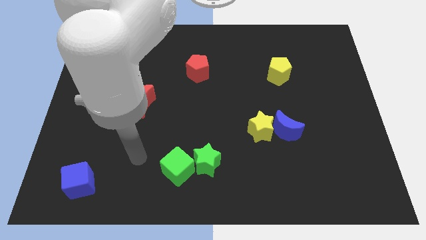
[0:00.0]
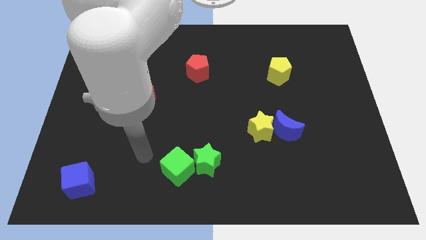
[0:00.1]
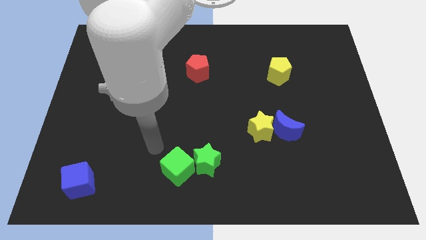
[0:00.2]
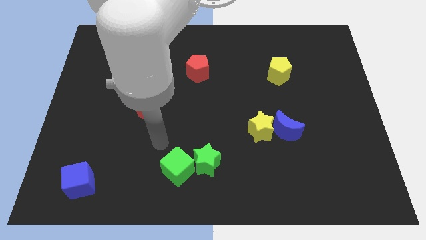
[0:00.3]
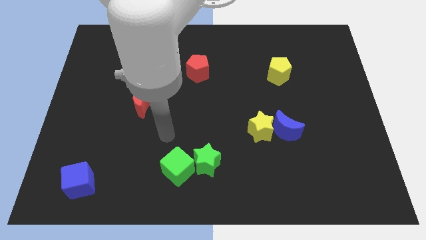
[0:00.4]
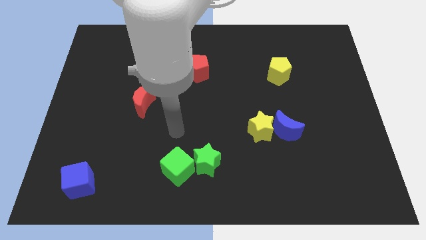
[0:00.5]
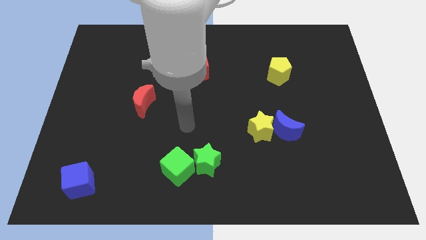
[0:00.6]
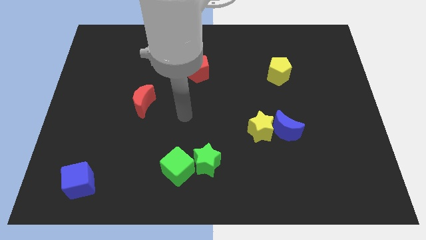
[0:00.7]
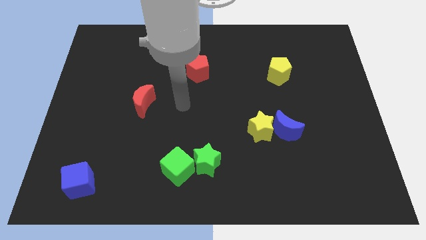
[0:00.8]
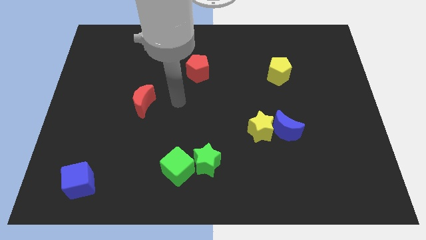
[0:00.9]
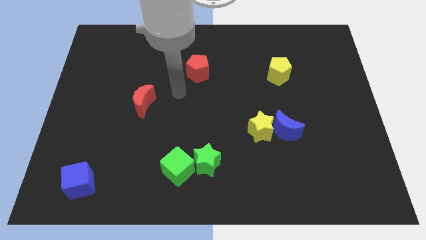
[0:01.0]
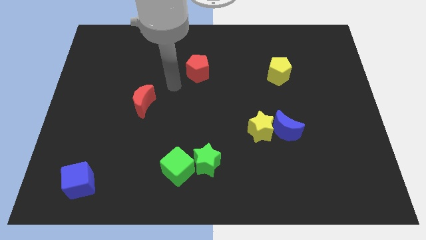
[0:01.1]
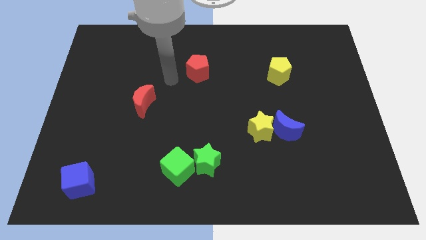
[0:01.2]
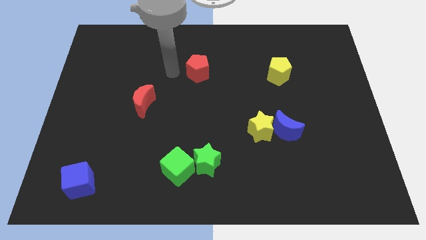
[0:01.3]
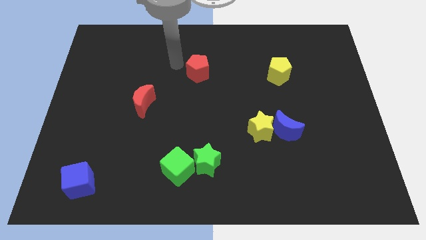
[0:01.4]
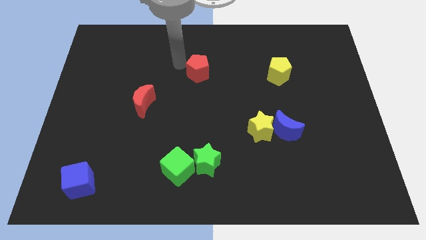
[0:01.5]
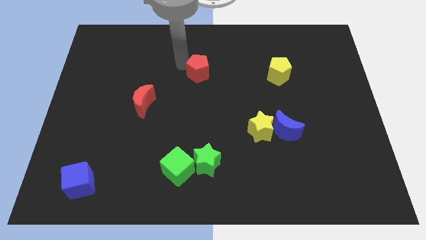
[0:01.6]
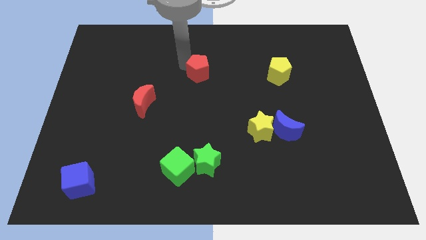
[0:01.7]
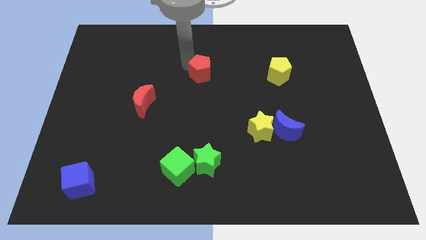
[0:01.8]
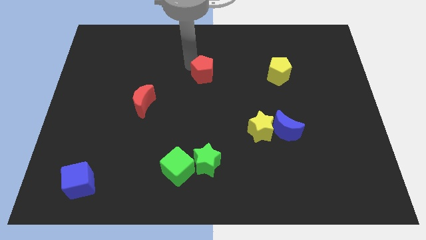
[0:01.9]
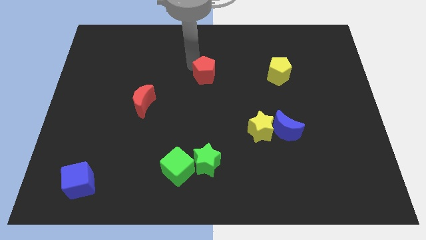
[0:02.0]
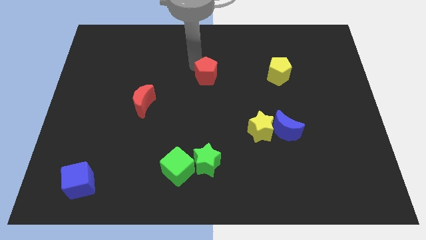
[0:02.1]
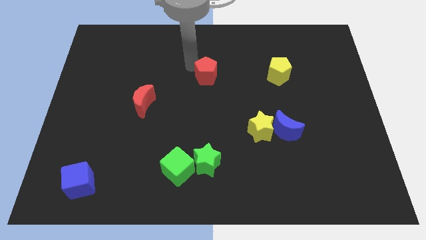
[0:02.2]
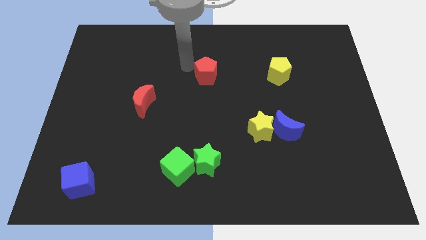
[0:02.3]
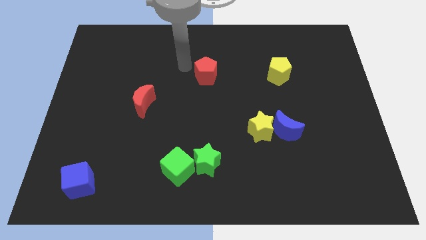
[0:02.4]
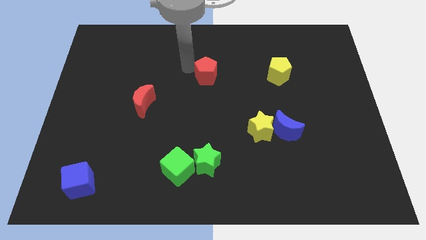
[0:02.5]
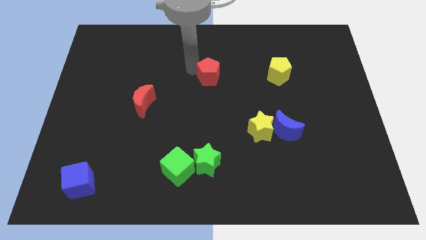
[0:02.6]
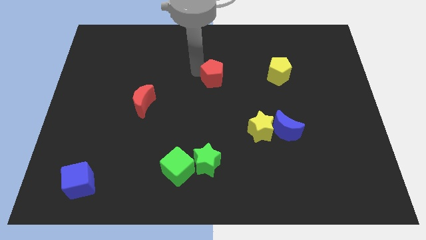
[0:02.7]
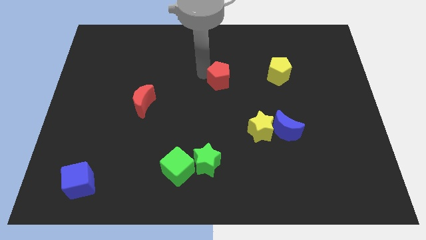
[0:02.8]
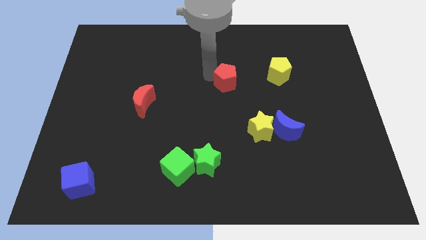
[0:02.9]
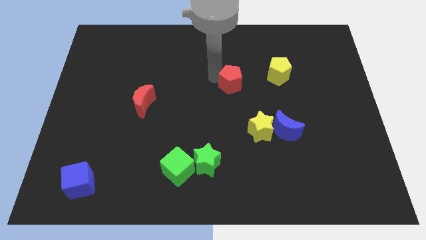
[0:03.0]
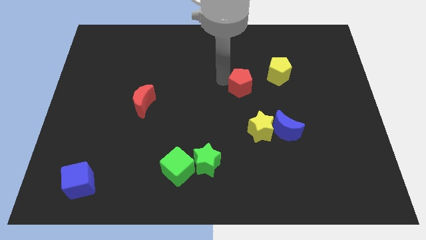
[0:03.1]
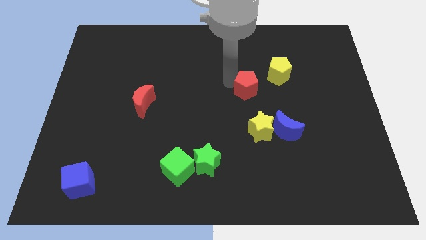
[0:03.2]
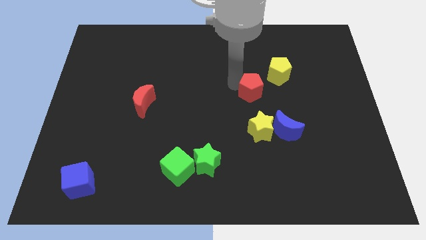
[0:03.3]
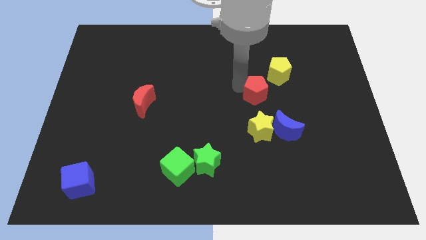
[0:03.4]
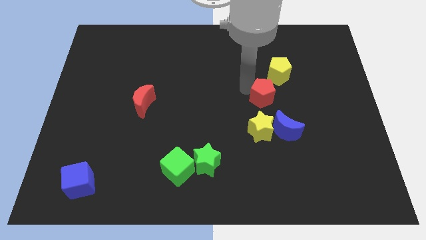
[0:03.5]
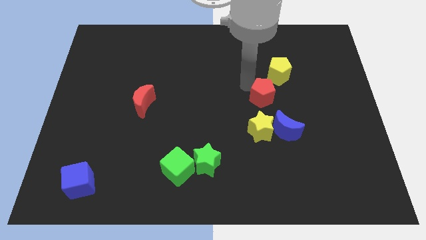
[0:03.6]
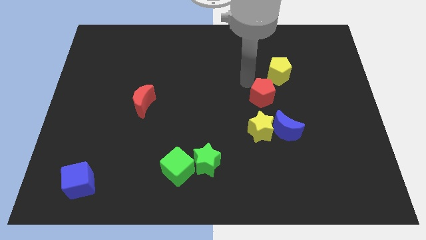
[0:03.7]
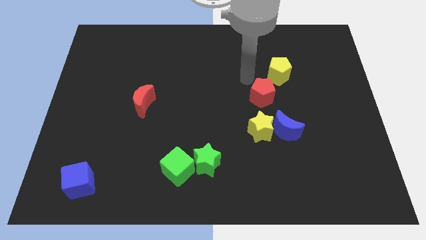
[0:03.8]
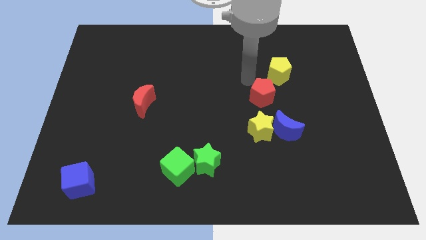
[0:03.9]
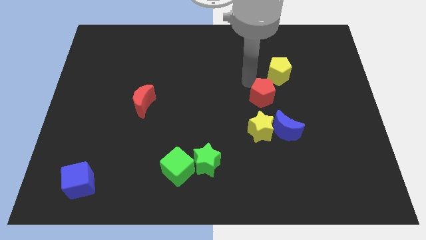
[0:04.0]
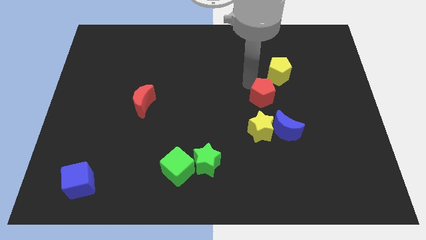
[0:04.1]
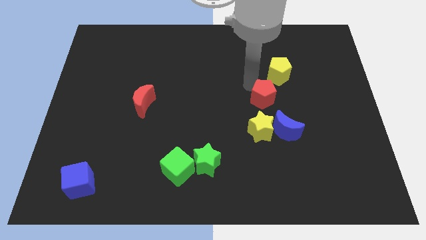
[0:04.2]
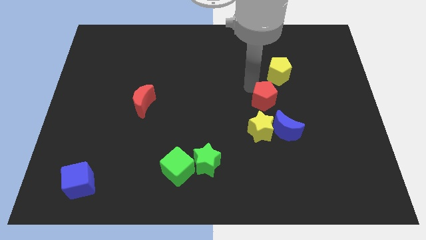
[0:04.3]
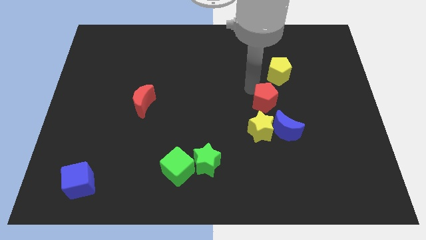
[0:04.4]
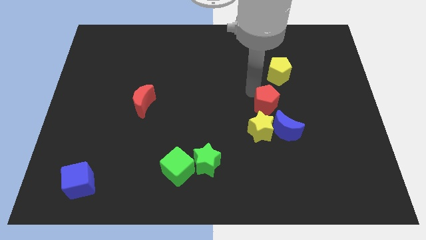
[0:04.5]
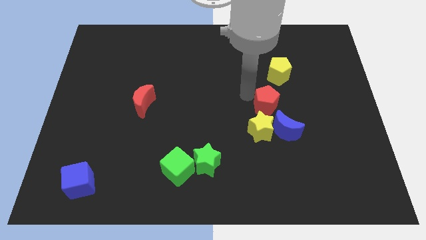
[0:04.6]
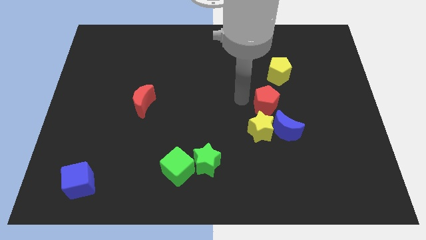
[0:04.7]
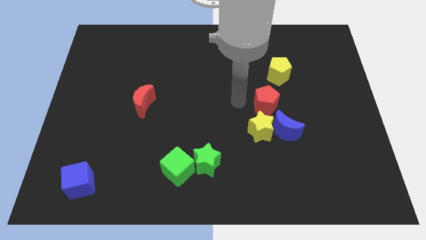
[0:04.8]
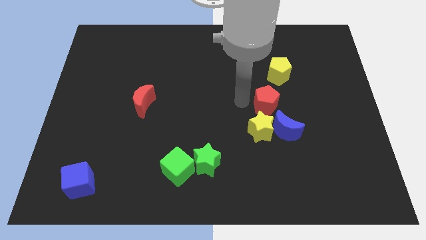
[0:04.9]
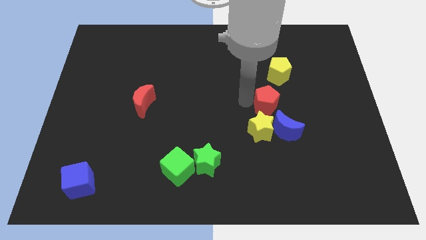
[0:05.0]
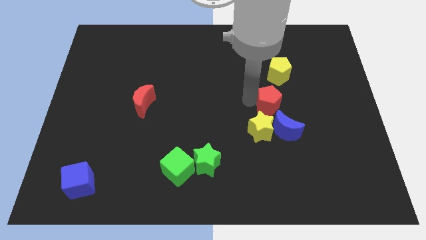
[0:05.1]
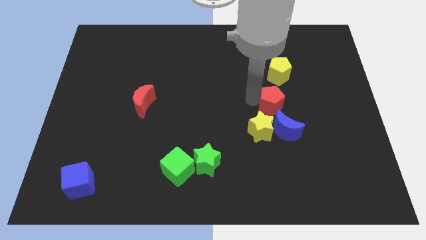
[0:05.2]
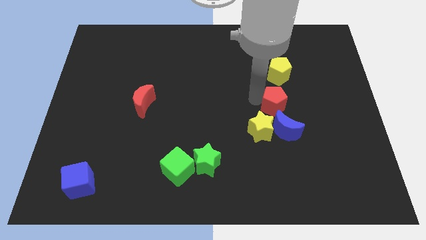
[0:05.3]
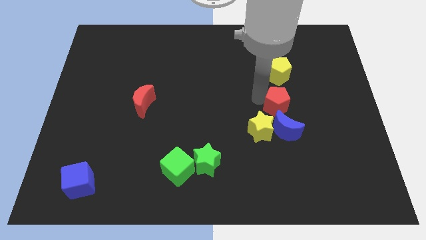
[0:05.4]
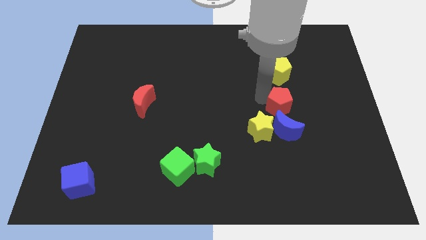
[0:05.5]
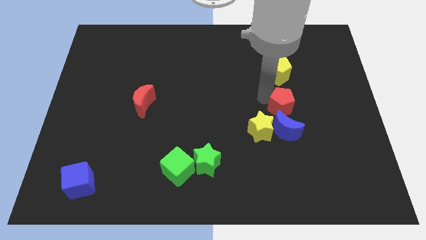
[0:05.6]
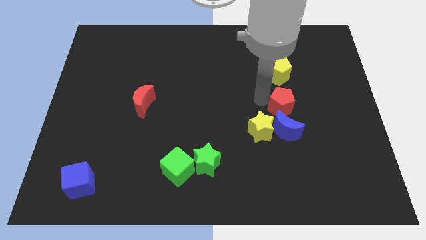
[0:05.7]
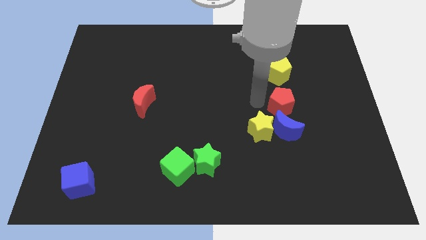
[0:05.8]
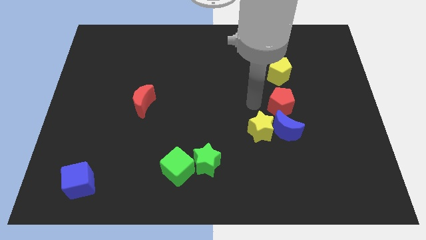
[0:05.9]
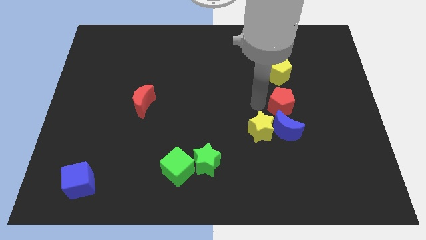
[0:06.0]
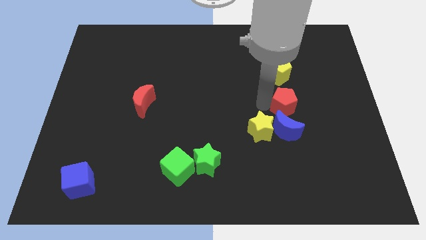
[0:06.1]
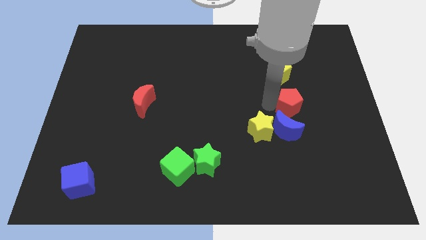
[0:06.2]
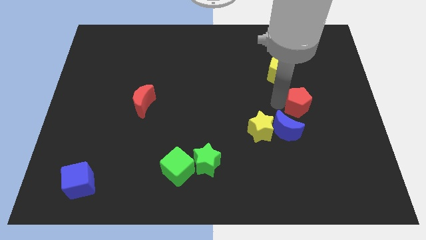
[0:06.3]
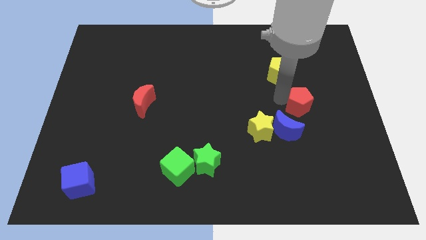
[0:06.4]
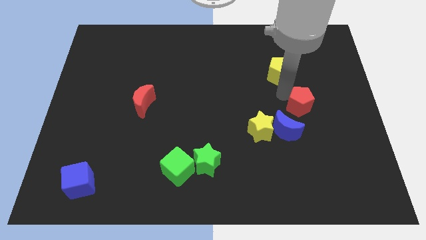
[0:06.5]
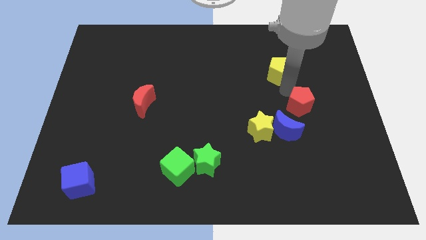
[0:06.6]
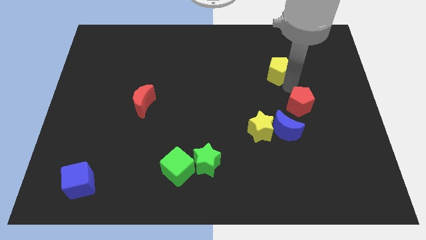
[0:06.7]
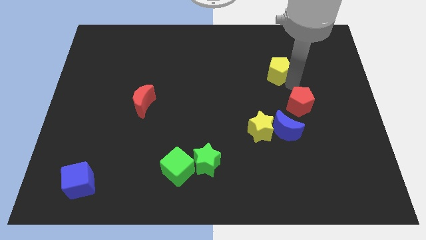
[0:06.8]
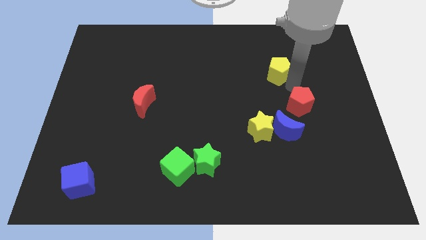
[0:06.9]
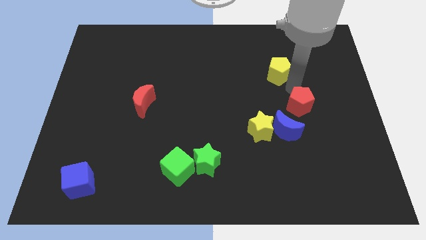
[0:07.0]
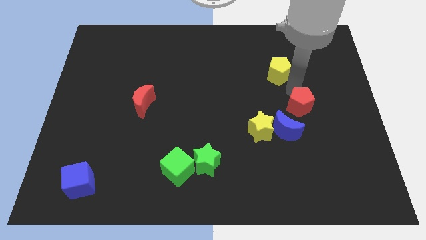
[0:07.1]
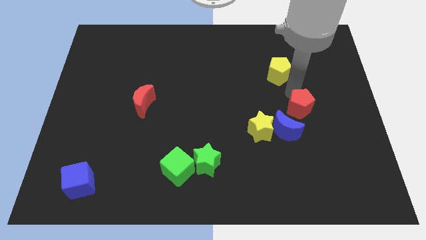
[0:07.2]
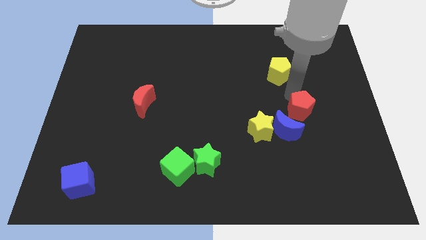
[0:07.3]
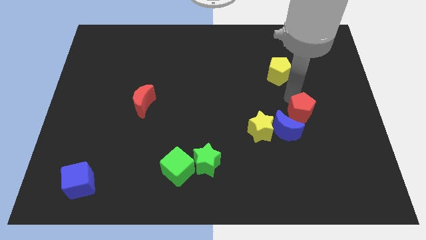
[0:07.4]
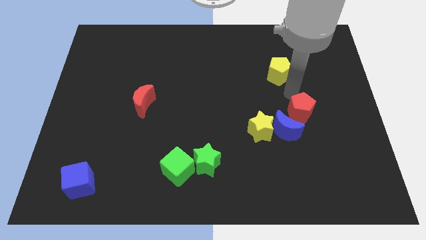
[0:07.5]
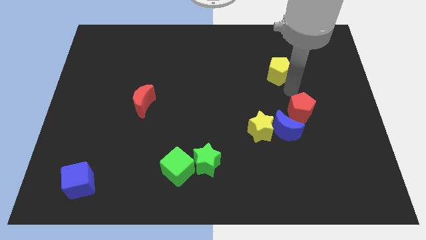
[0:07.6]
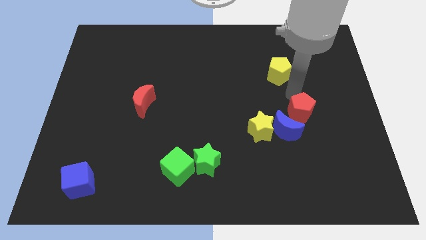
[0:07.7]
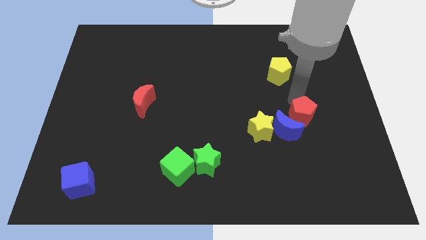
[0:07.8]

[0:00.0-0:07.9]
move the red pentagon right of the yellow star
